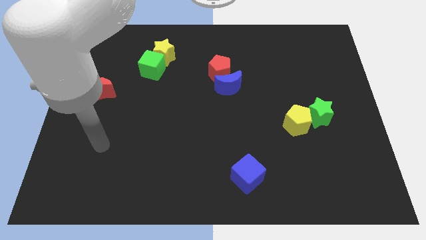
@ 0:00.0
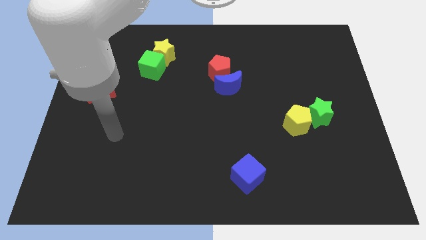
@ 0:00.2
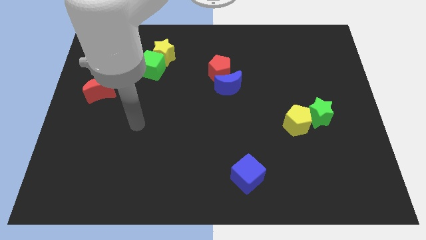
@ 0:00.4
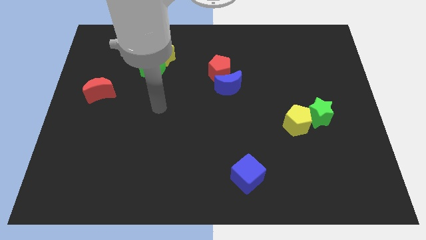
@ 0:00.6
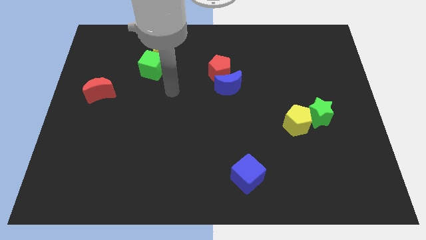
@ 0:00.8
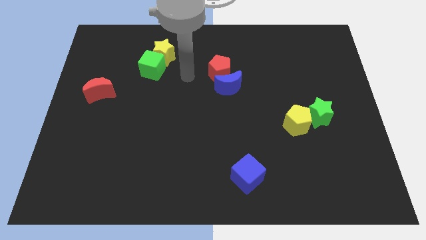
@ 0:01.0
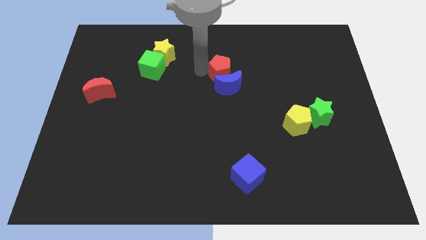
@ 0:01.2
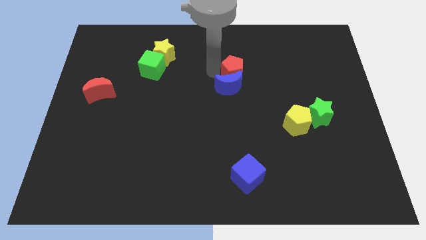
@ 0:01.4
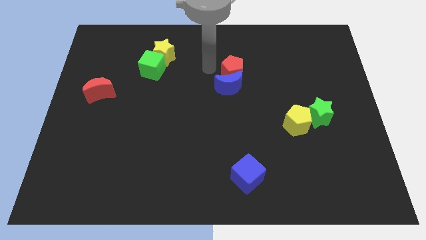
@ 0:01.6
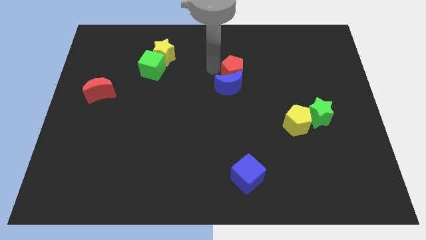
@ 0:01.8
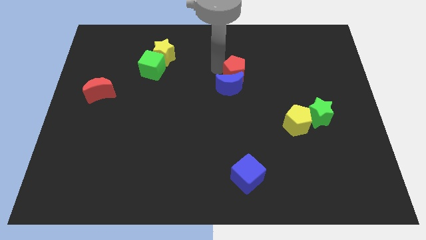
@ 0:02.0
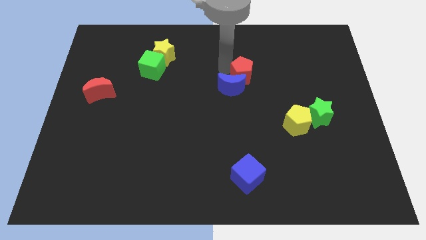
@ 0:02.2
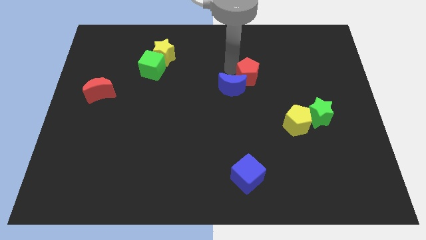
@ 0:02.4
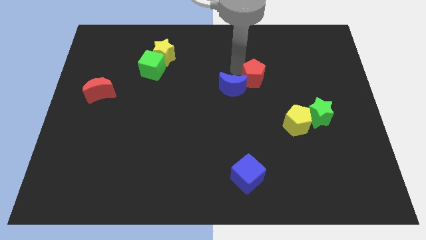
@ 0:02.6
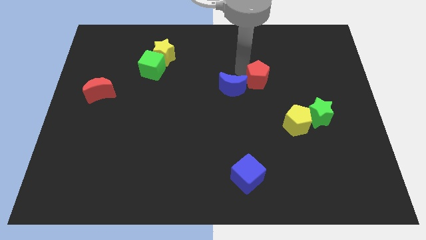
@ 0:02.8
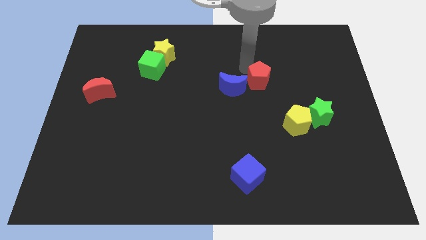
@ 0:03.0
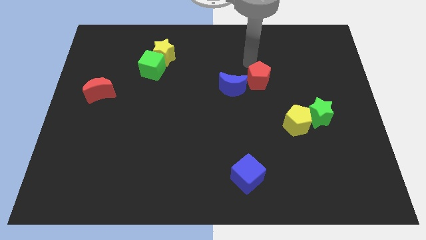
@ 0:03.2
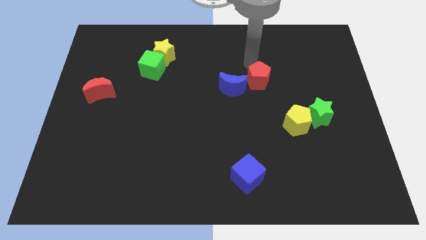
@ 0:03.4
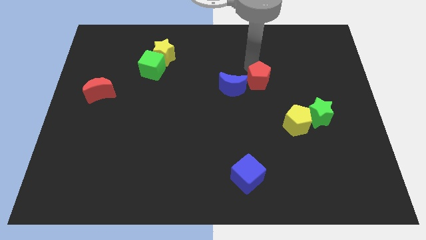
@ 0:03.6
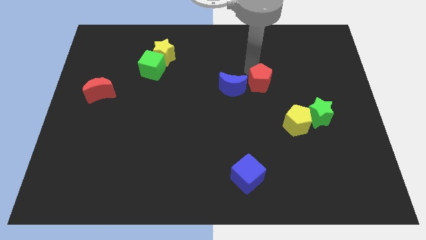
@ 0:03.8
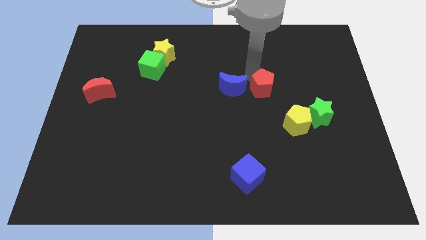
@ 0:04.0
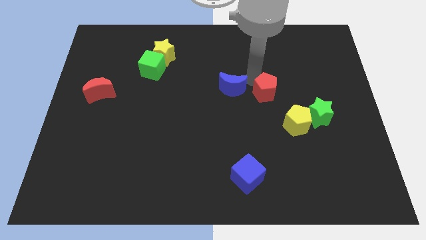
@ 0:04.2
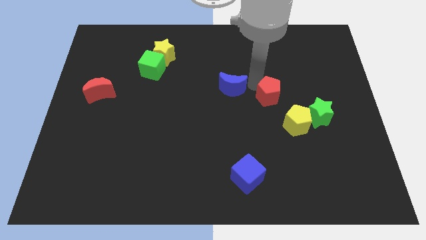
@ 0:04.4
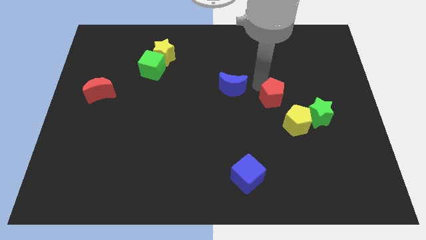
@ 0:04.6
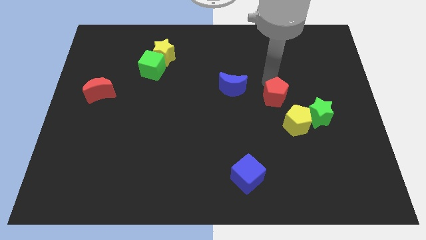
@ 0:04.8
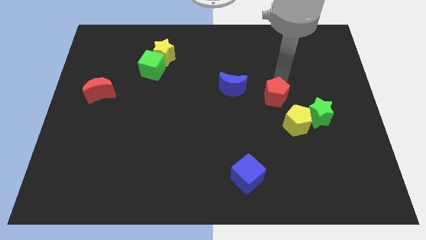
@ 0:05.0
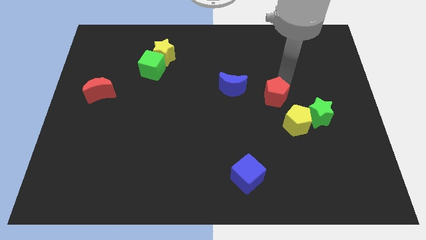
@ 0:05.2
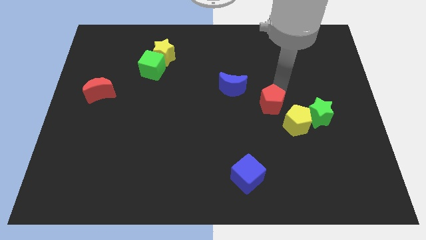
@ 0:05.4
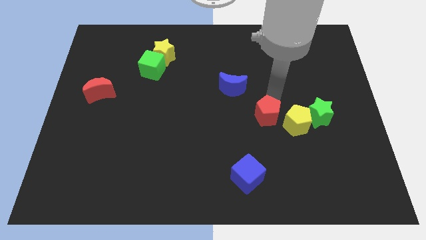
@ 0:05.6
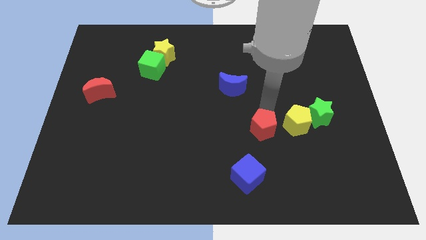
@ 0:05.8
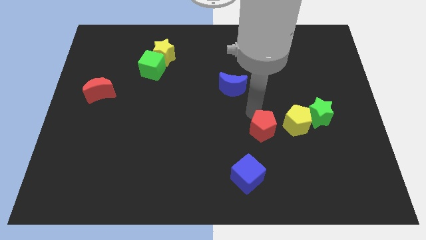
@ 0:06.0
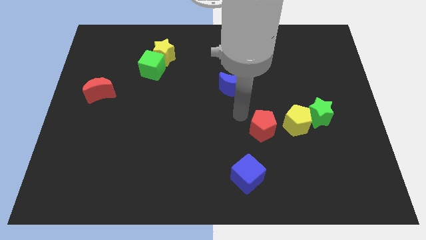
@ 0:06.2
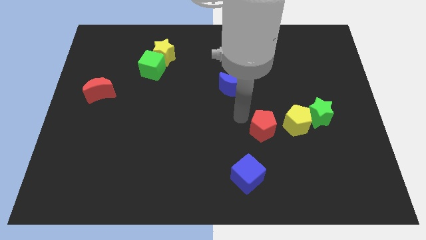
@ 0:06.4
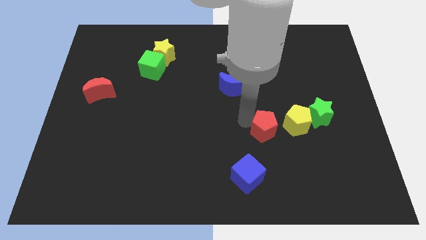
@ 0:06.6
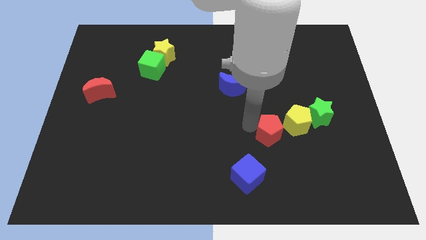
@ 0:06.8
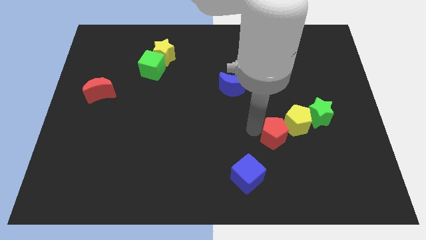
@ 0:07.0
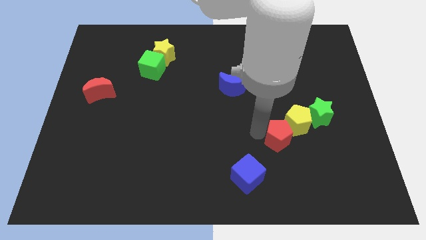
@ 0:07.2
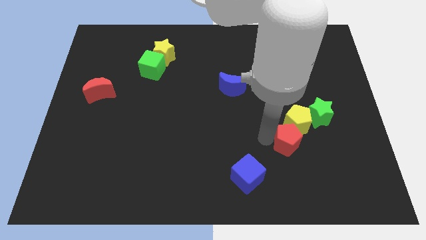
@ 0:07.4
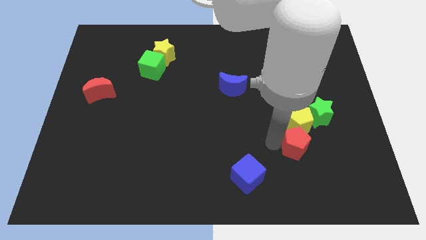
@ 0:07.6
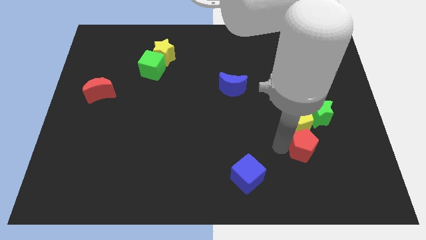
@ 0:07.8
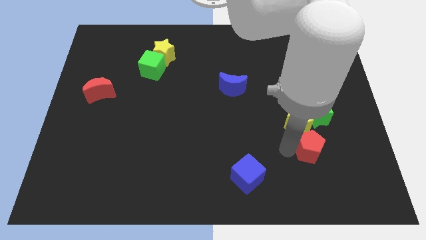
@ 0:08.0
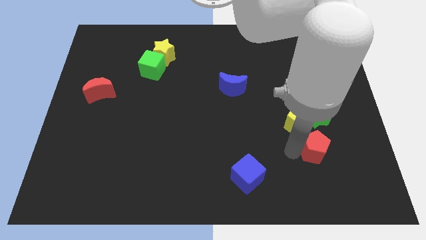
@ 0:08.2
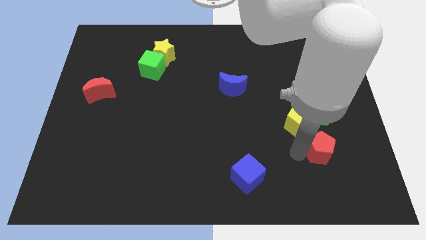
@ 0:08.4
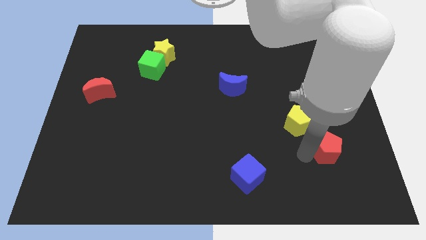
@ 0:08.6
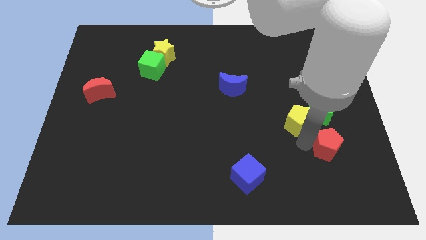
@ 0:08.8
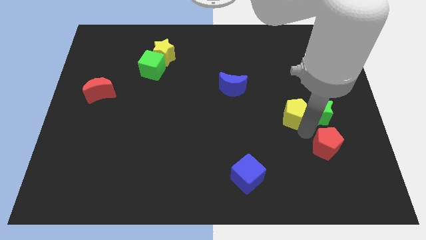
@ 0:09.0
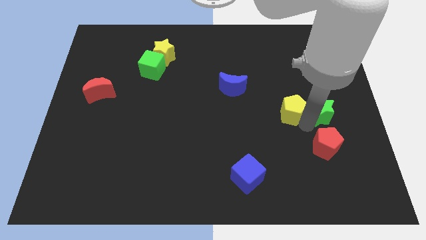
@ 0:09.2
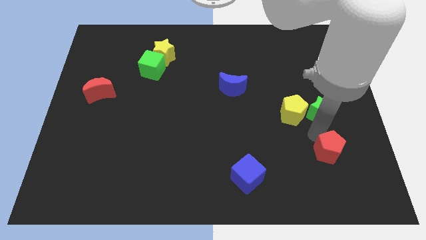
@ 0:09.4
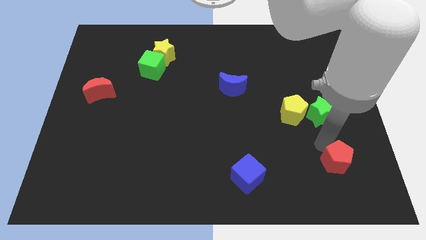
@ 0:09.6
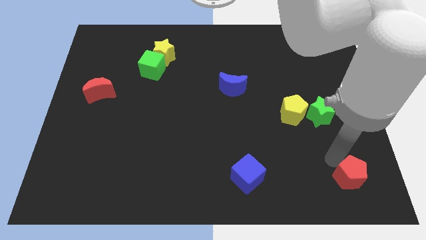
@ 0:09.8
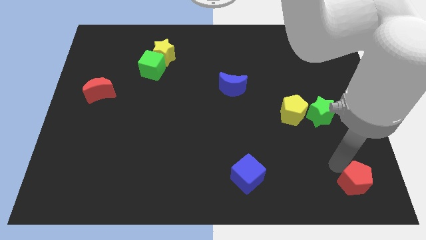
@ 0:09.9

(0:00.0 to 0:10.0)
put the red pentagon to the lower right corner

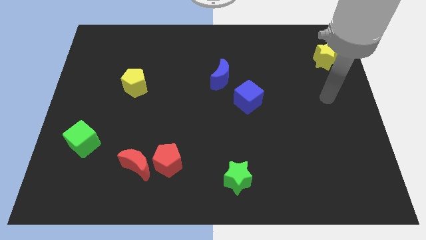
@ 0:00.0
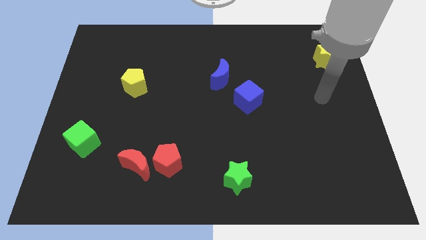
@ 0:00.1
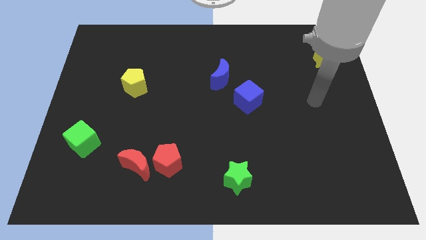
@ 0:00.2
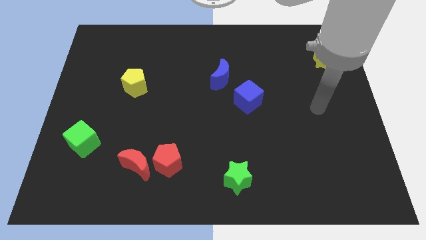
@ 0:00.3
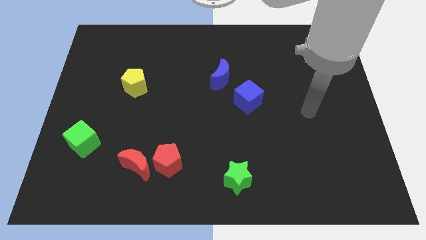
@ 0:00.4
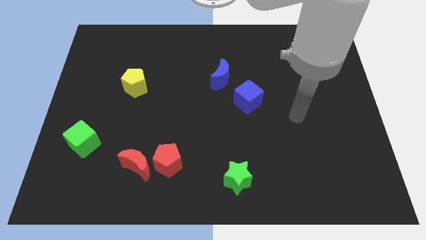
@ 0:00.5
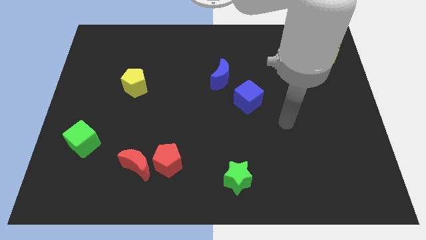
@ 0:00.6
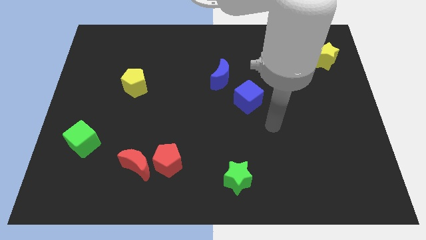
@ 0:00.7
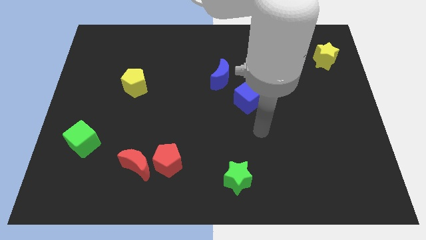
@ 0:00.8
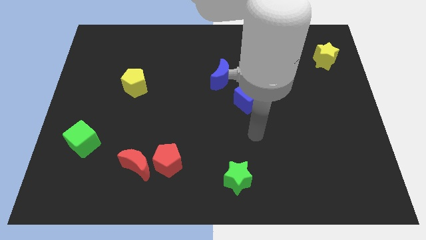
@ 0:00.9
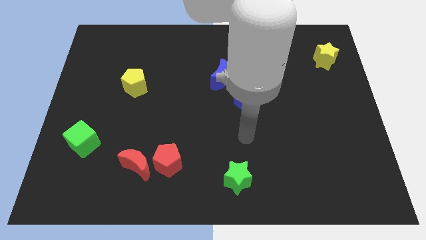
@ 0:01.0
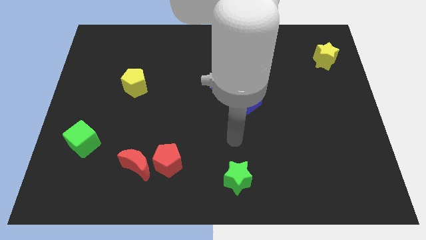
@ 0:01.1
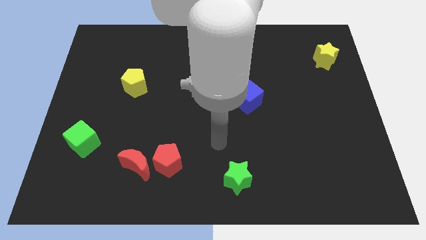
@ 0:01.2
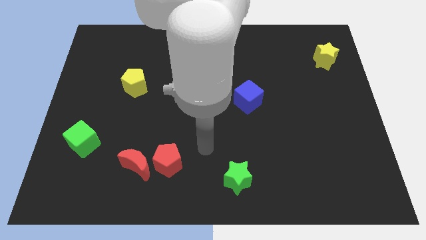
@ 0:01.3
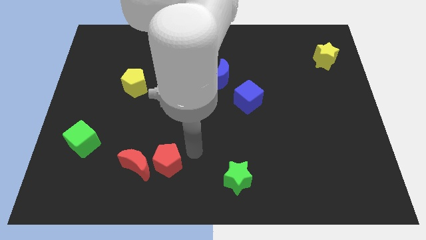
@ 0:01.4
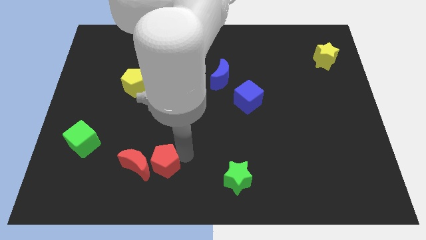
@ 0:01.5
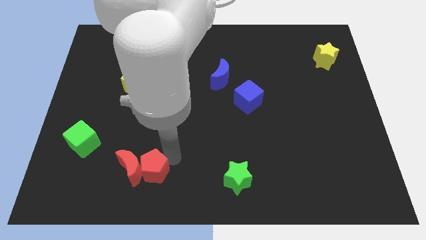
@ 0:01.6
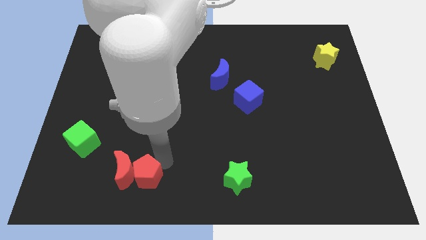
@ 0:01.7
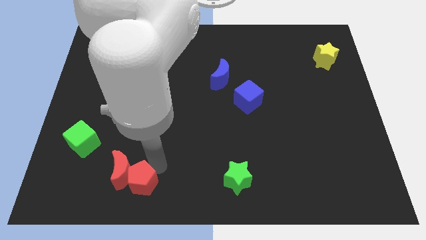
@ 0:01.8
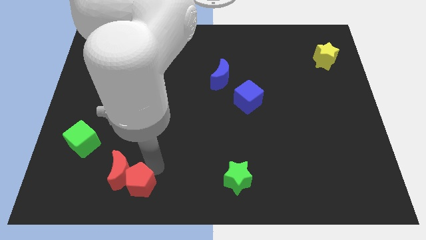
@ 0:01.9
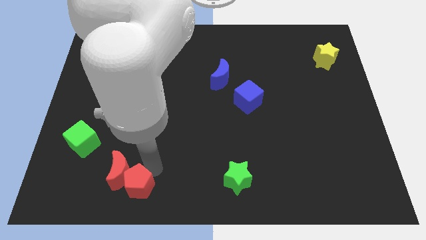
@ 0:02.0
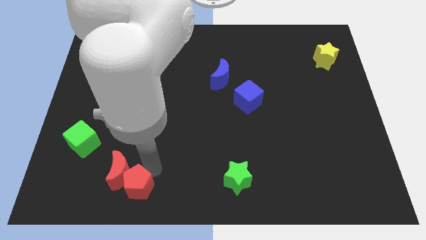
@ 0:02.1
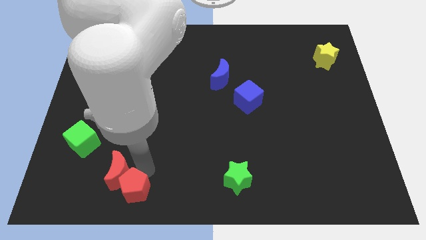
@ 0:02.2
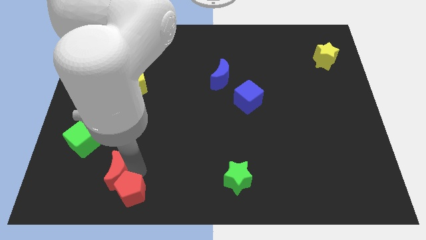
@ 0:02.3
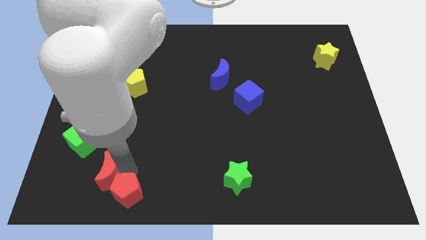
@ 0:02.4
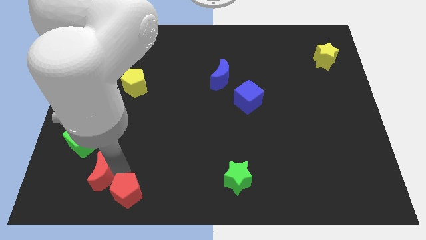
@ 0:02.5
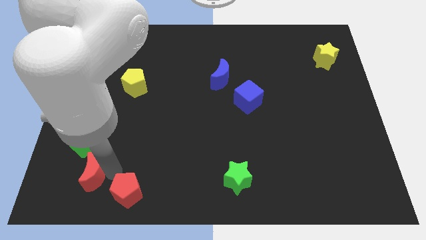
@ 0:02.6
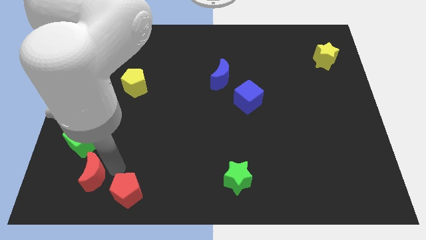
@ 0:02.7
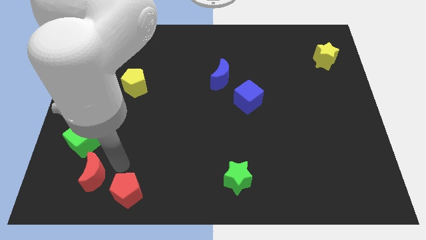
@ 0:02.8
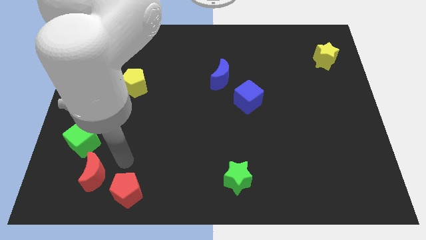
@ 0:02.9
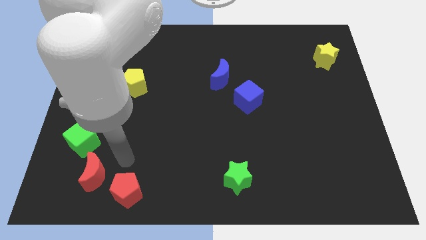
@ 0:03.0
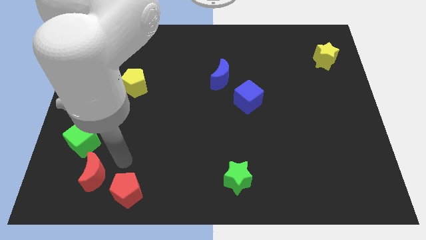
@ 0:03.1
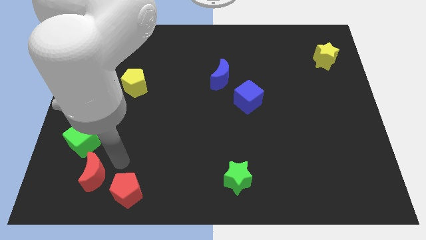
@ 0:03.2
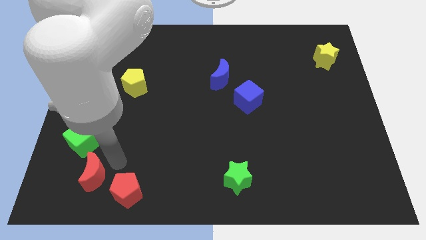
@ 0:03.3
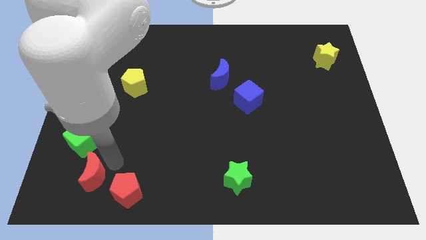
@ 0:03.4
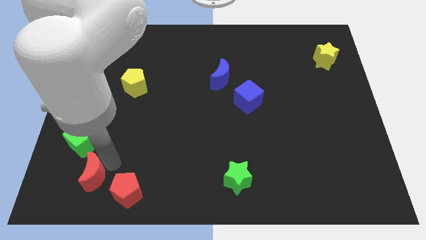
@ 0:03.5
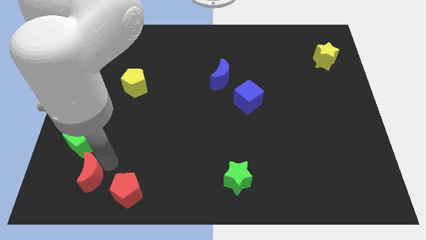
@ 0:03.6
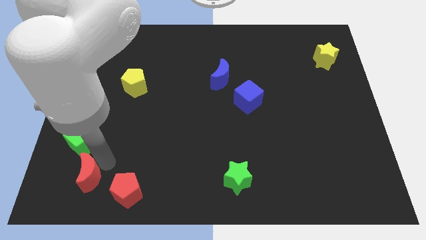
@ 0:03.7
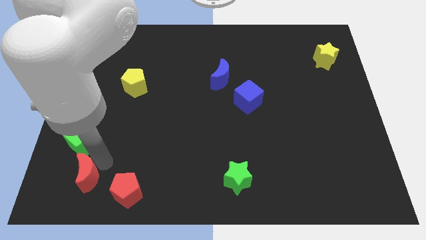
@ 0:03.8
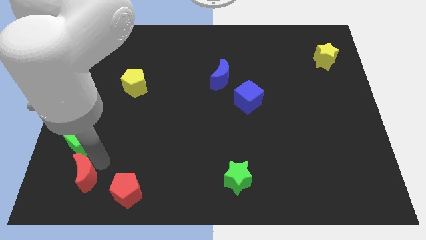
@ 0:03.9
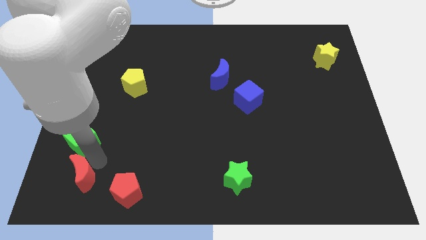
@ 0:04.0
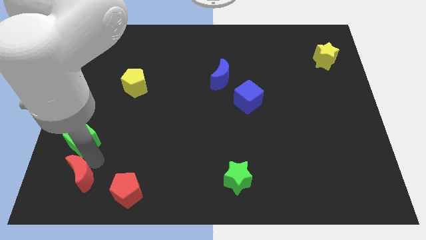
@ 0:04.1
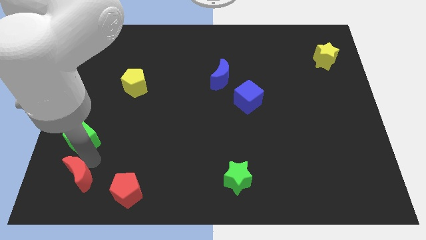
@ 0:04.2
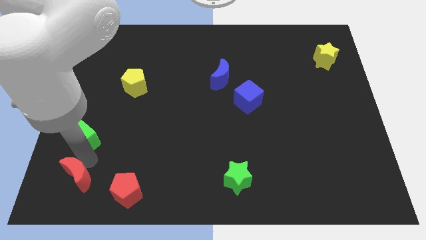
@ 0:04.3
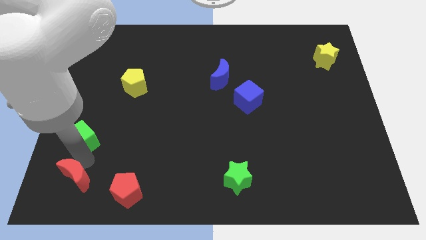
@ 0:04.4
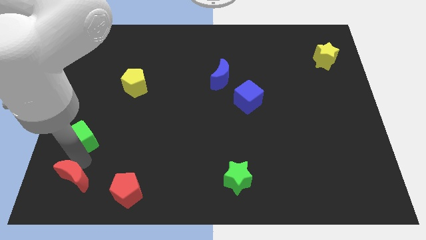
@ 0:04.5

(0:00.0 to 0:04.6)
put the red moon to the bottom left corner
